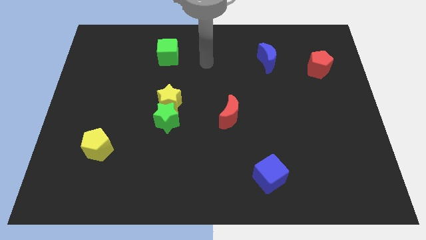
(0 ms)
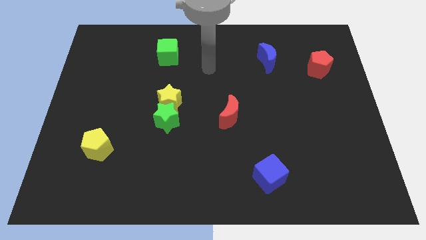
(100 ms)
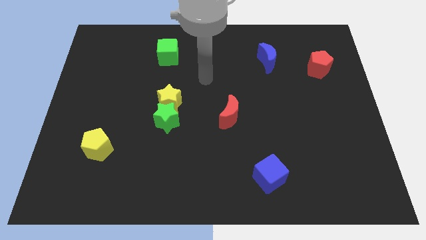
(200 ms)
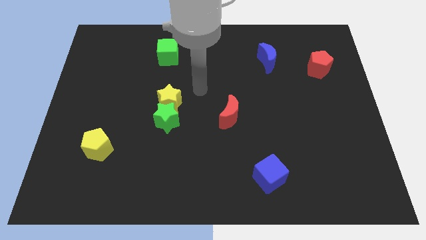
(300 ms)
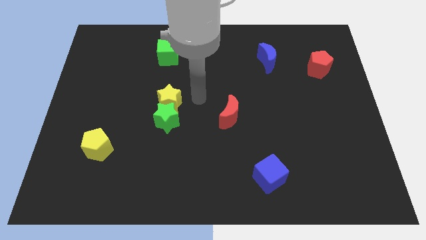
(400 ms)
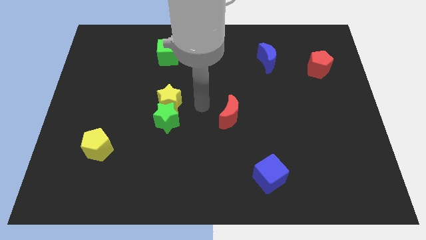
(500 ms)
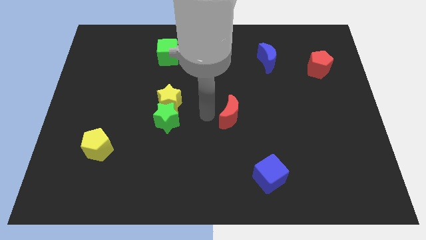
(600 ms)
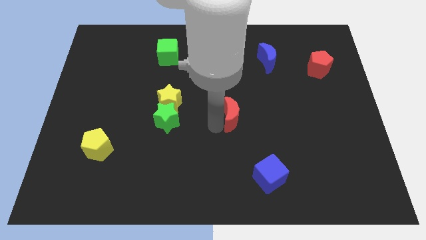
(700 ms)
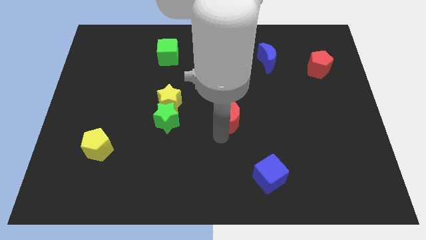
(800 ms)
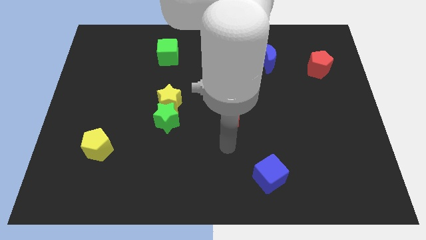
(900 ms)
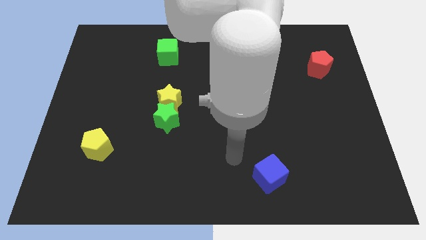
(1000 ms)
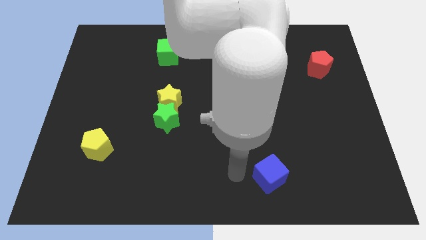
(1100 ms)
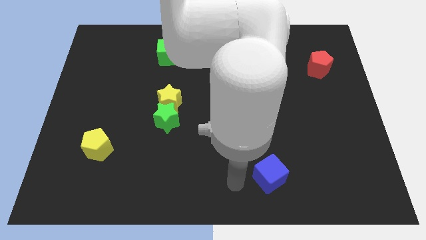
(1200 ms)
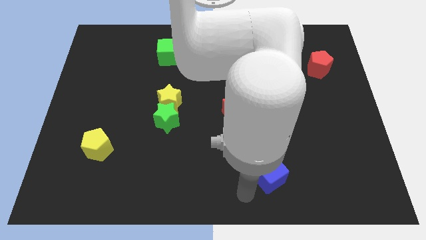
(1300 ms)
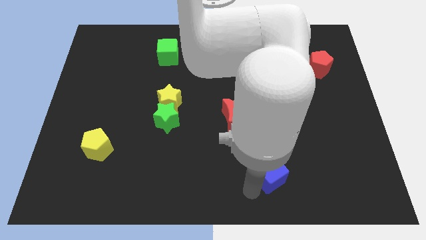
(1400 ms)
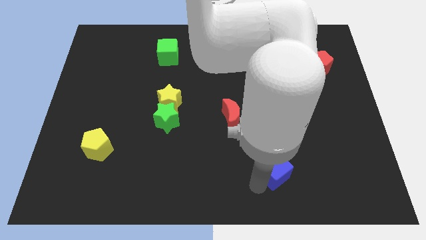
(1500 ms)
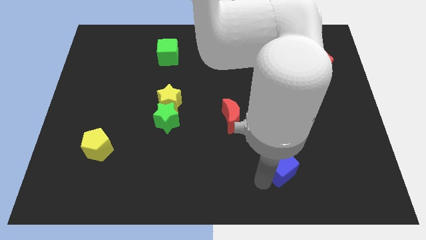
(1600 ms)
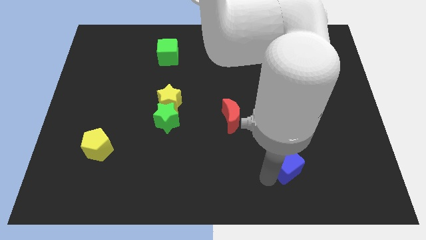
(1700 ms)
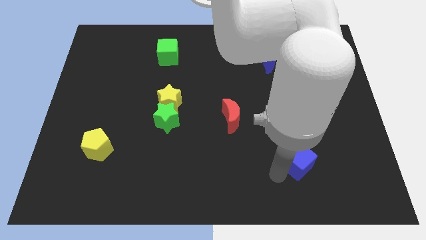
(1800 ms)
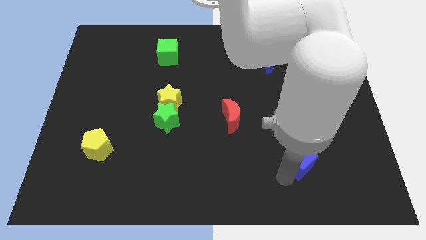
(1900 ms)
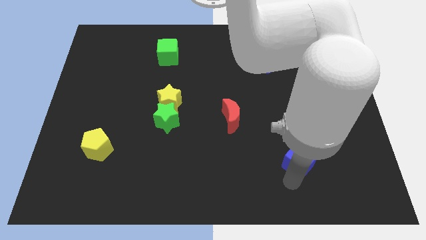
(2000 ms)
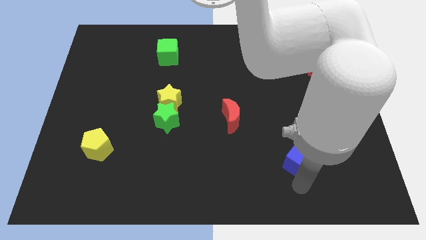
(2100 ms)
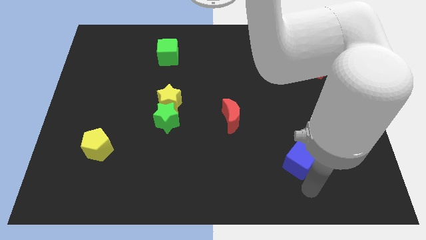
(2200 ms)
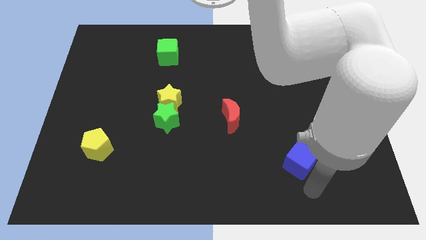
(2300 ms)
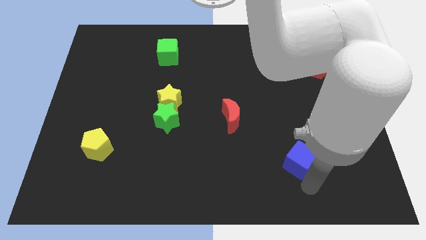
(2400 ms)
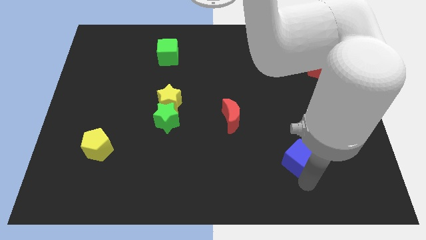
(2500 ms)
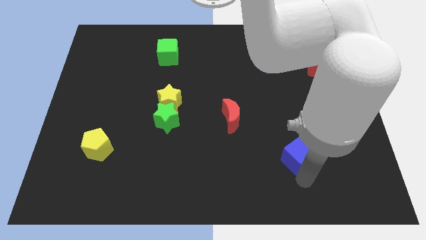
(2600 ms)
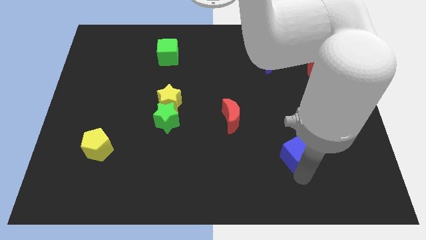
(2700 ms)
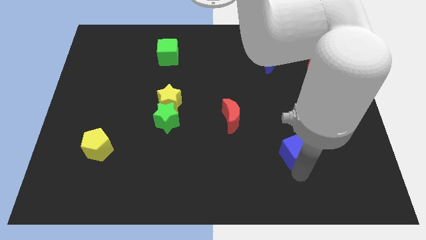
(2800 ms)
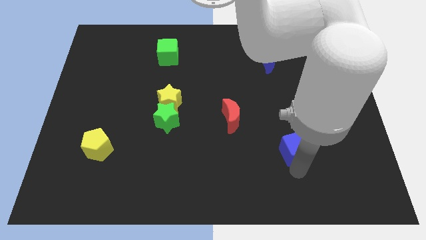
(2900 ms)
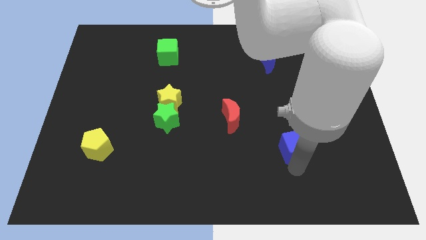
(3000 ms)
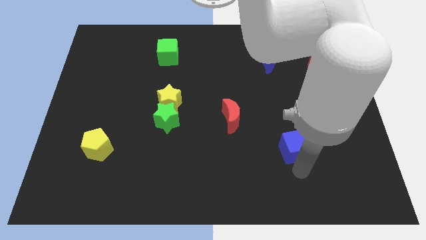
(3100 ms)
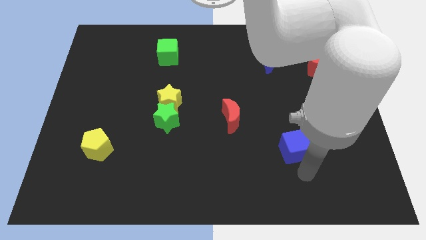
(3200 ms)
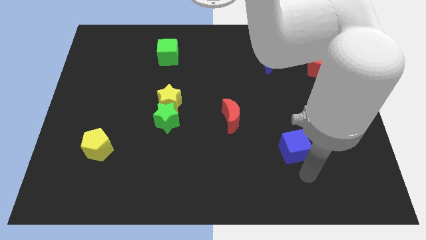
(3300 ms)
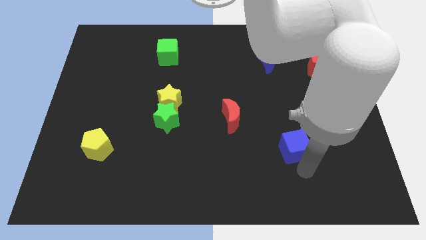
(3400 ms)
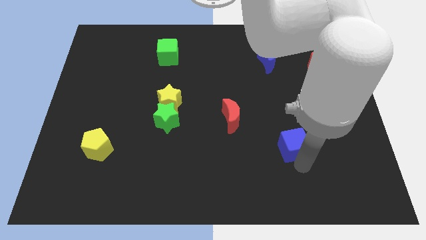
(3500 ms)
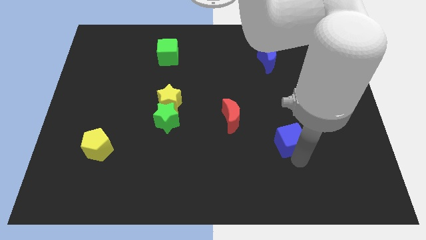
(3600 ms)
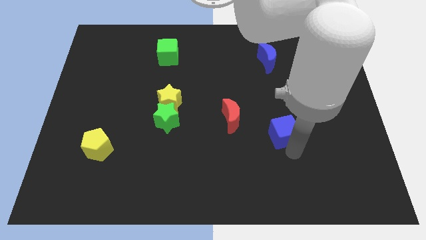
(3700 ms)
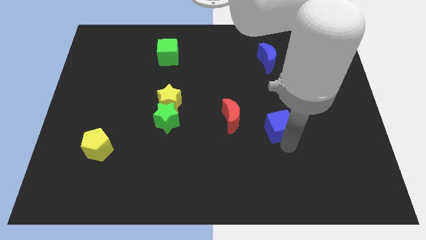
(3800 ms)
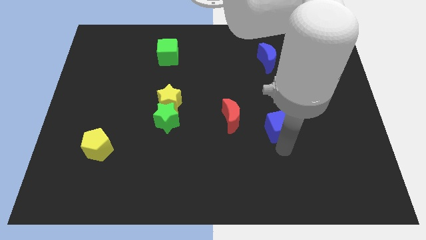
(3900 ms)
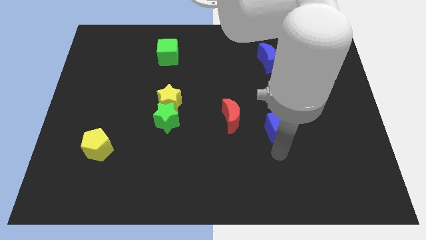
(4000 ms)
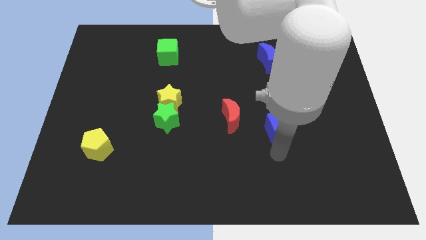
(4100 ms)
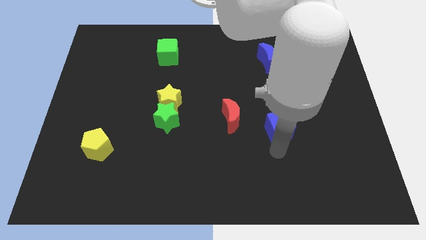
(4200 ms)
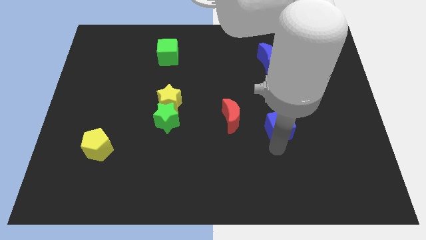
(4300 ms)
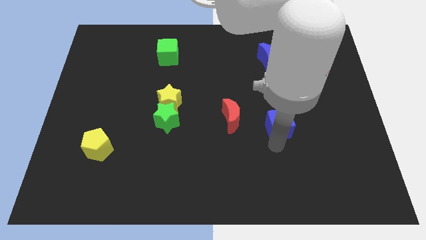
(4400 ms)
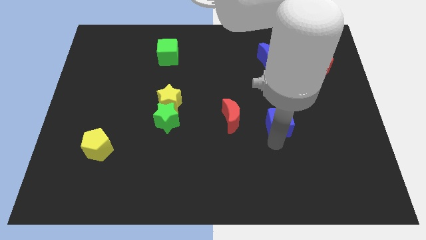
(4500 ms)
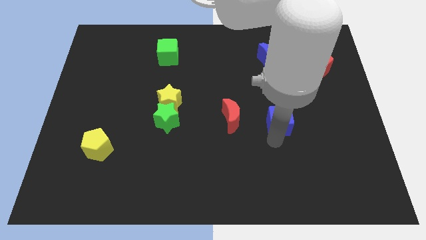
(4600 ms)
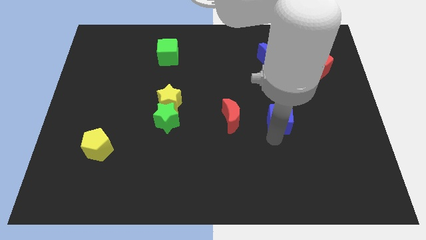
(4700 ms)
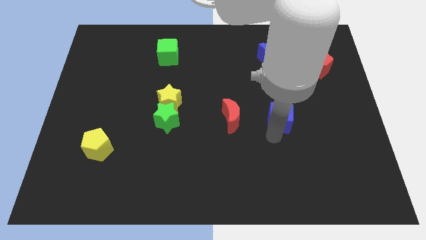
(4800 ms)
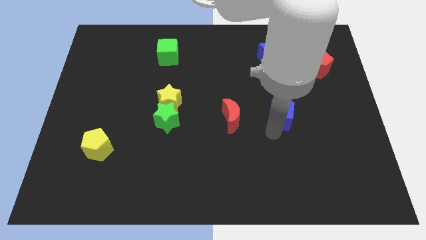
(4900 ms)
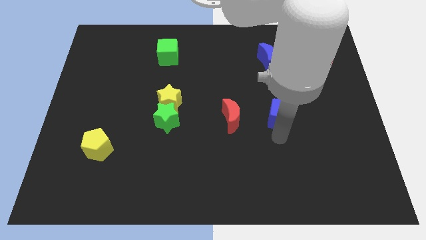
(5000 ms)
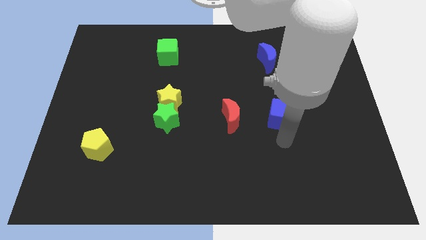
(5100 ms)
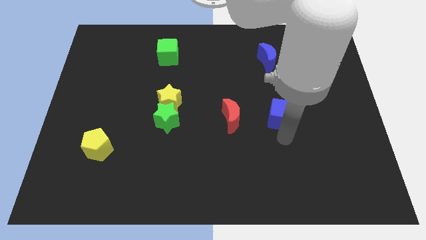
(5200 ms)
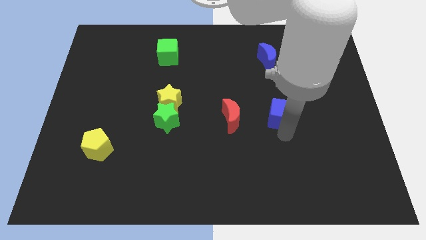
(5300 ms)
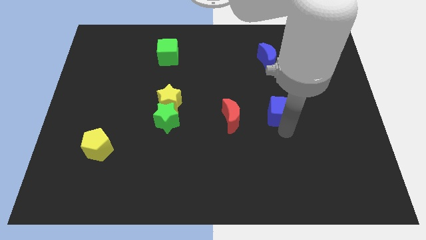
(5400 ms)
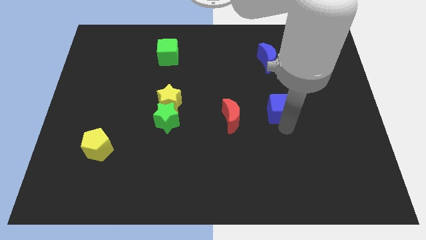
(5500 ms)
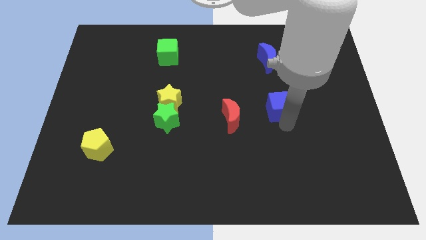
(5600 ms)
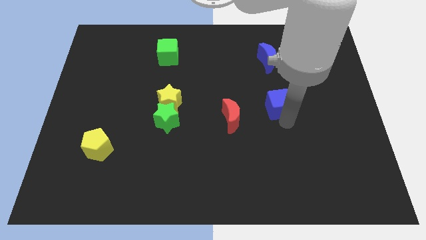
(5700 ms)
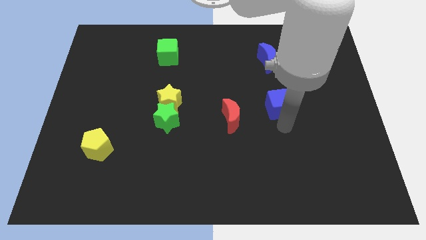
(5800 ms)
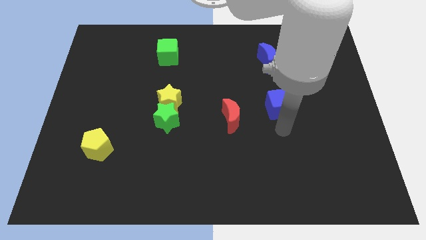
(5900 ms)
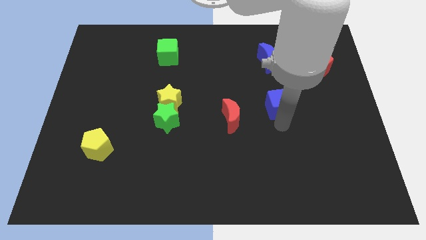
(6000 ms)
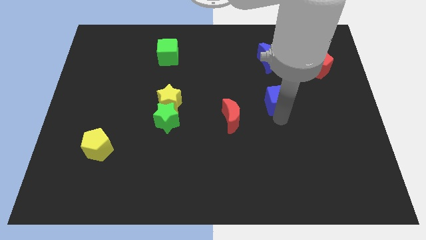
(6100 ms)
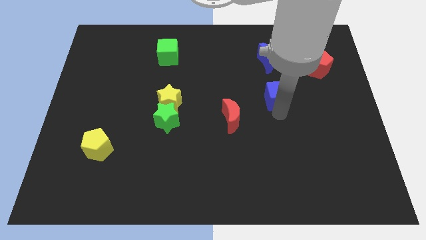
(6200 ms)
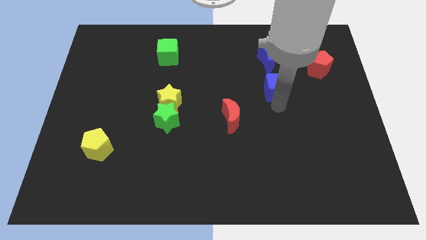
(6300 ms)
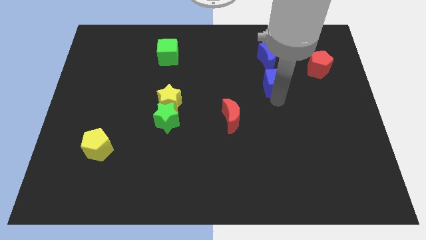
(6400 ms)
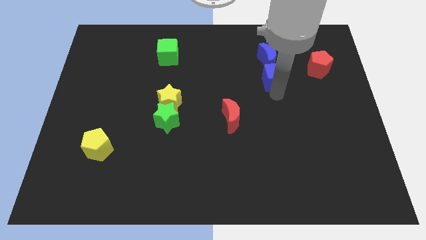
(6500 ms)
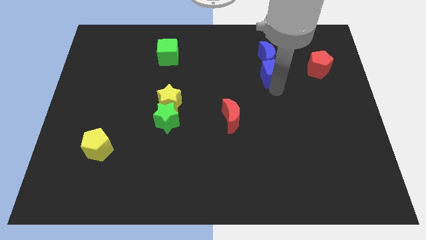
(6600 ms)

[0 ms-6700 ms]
push the blue cube next to the blue moon
